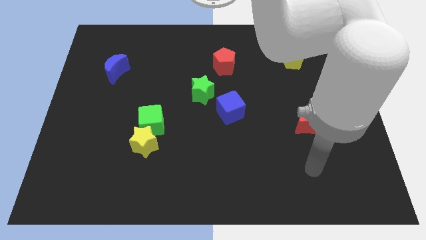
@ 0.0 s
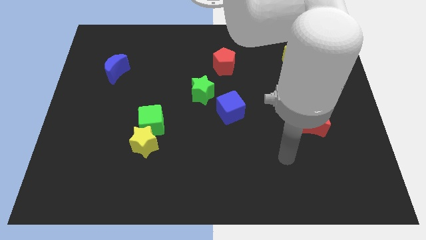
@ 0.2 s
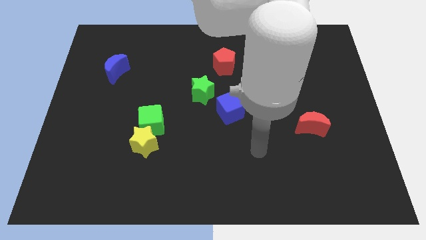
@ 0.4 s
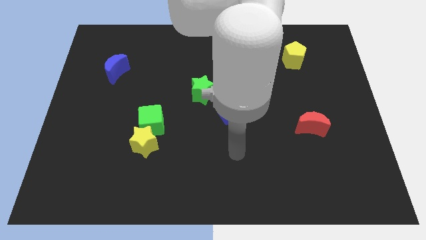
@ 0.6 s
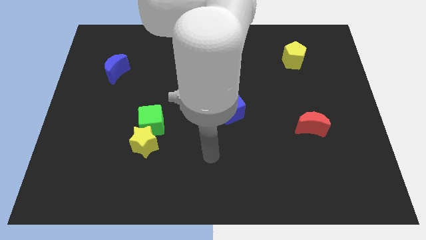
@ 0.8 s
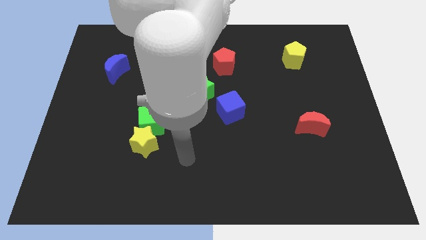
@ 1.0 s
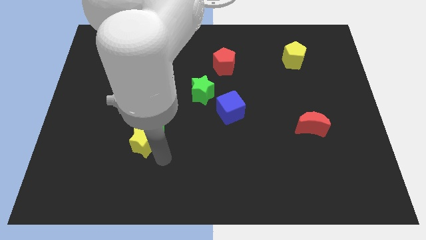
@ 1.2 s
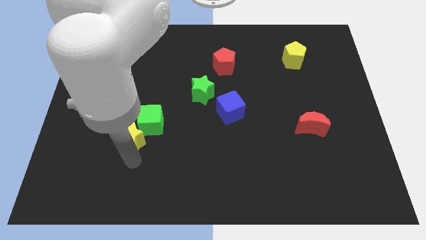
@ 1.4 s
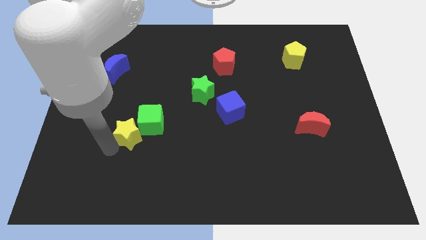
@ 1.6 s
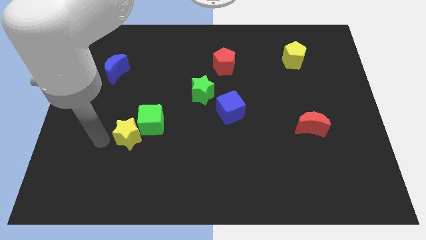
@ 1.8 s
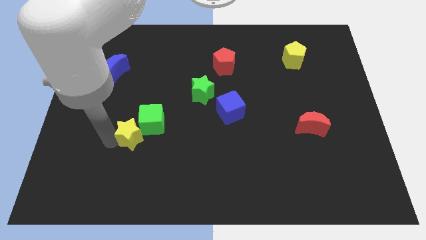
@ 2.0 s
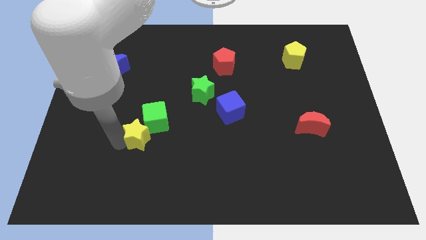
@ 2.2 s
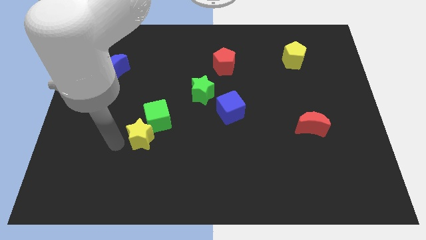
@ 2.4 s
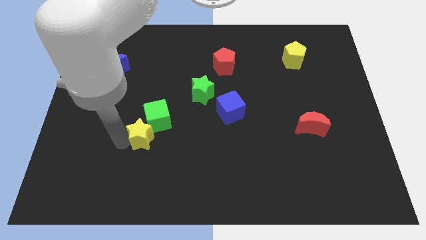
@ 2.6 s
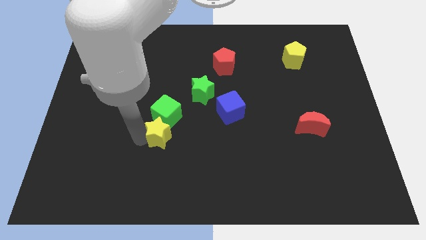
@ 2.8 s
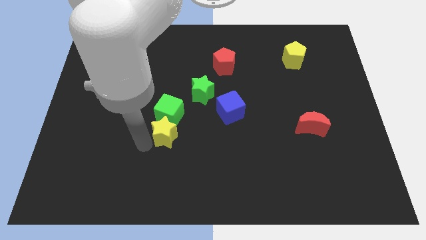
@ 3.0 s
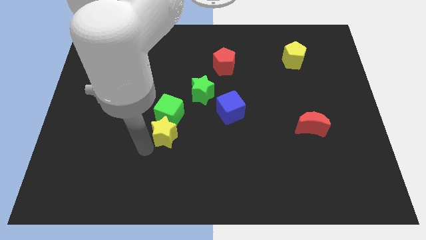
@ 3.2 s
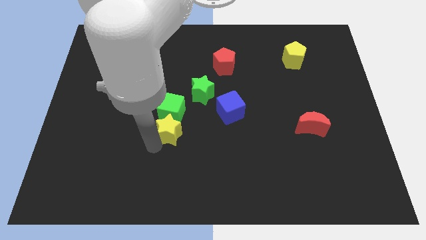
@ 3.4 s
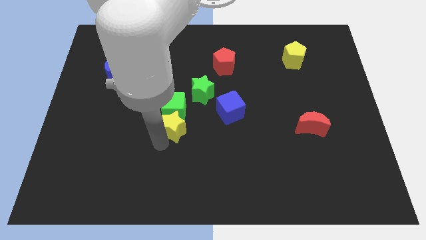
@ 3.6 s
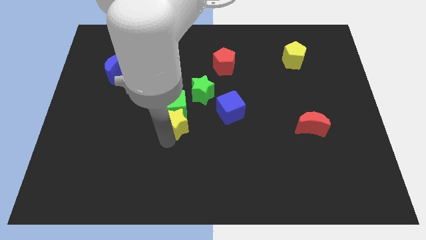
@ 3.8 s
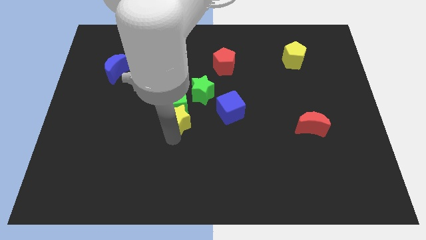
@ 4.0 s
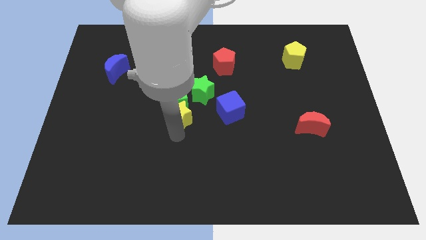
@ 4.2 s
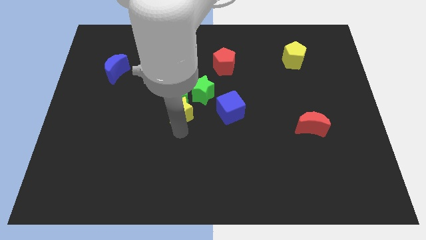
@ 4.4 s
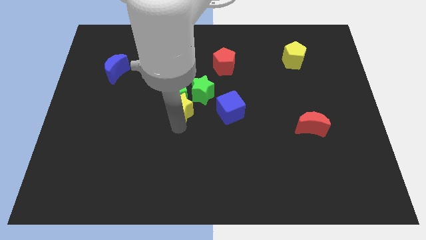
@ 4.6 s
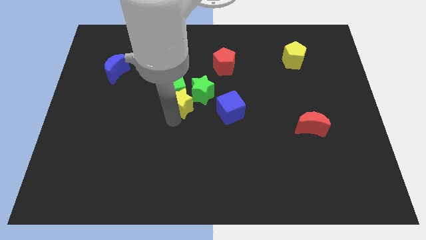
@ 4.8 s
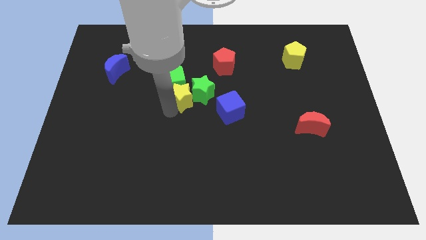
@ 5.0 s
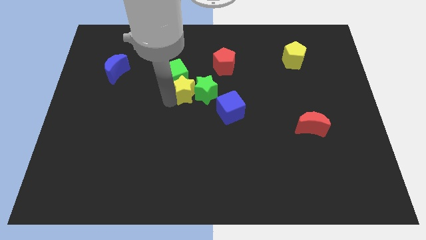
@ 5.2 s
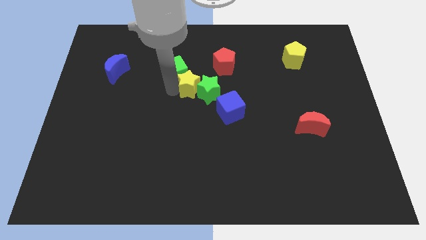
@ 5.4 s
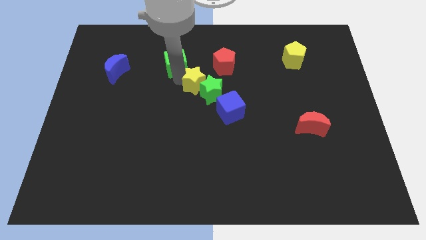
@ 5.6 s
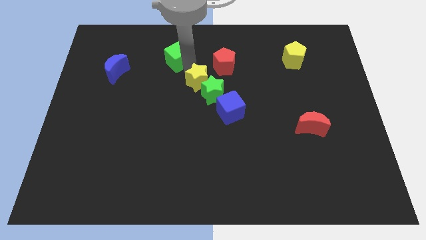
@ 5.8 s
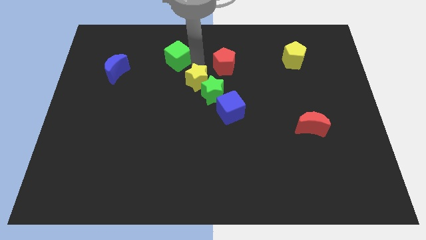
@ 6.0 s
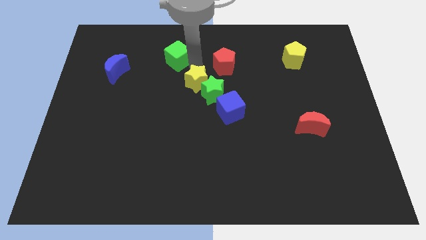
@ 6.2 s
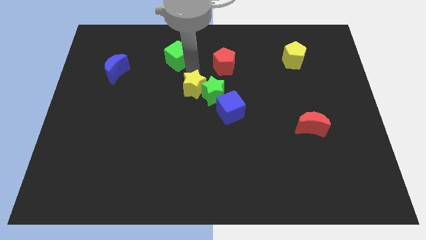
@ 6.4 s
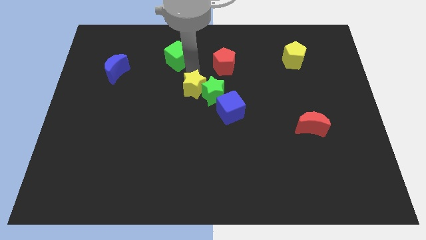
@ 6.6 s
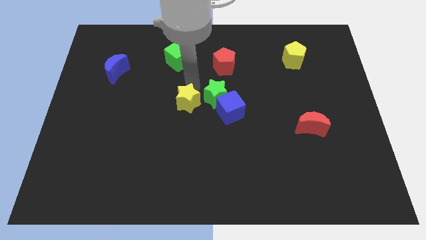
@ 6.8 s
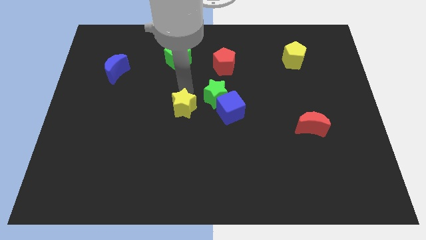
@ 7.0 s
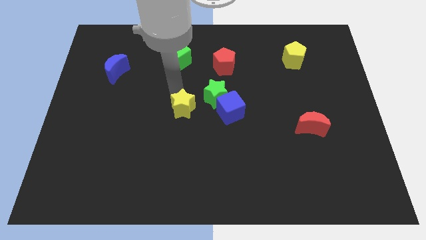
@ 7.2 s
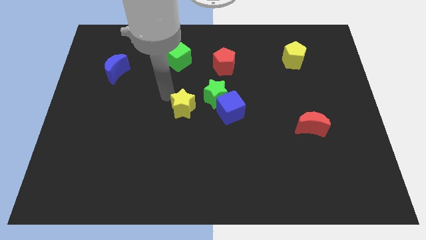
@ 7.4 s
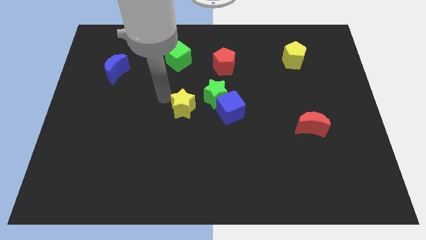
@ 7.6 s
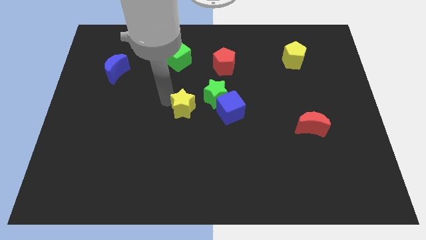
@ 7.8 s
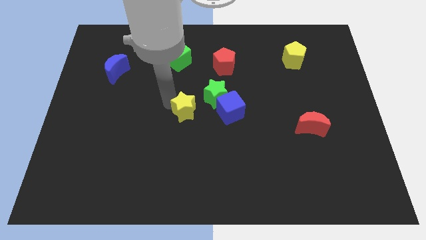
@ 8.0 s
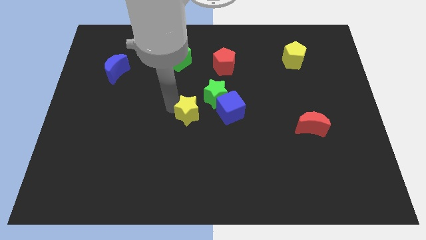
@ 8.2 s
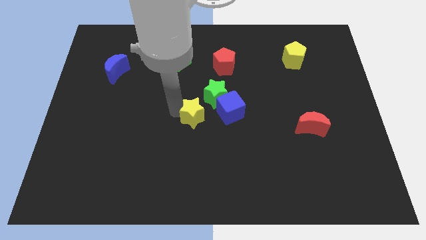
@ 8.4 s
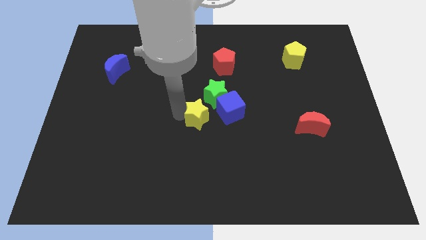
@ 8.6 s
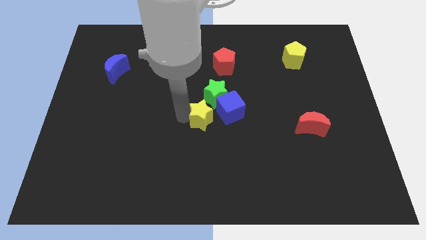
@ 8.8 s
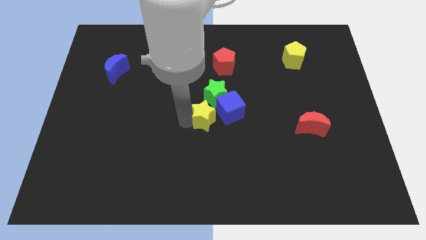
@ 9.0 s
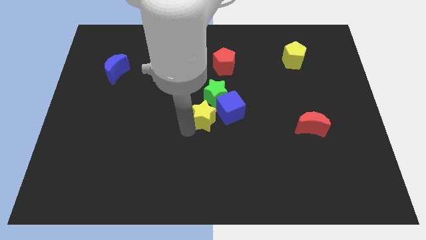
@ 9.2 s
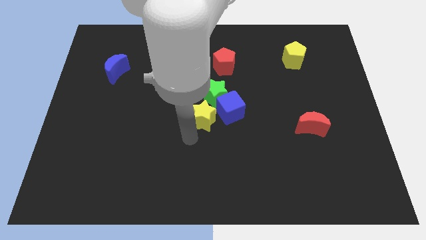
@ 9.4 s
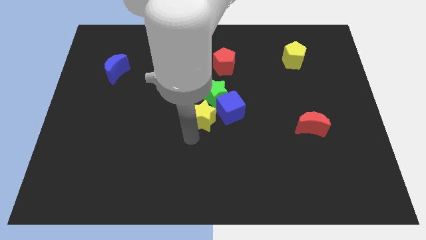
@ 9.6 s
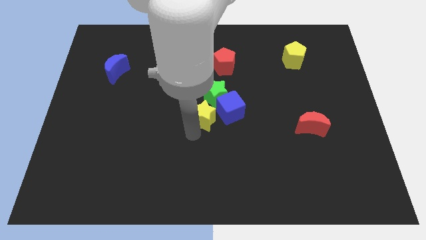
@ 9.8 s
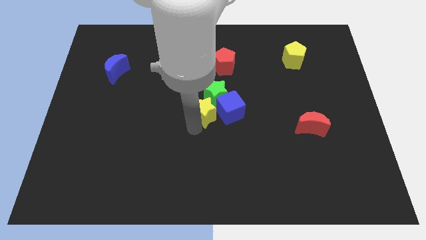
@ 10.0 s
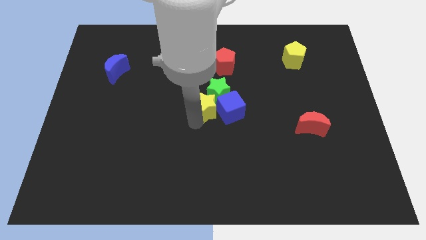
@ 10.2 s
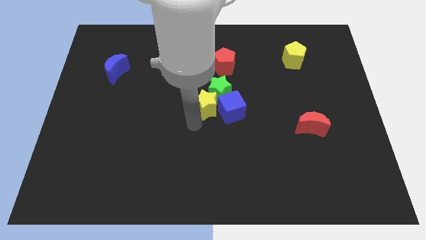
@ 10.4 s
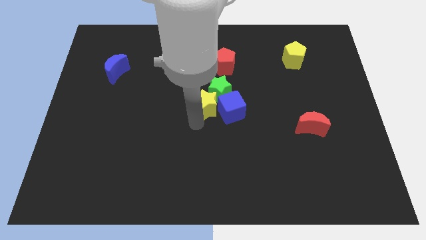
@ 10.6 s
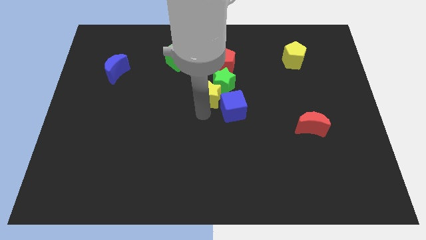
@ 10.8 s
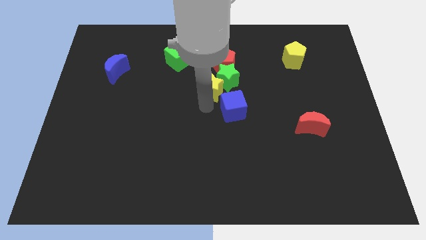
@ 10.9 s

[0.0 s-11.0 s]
put the yellow star to the top side of the blue cube

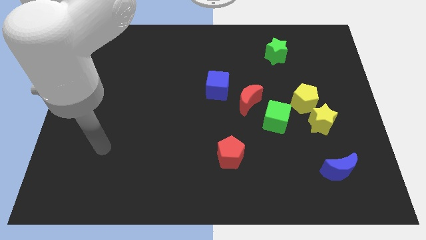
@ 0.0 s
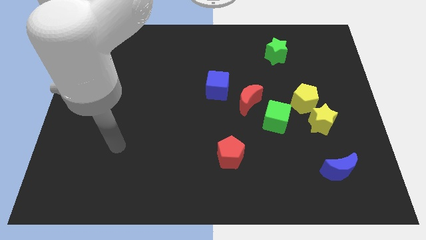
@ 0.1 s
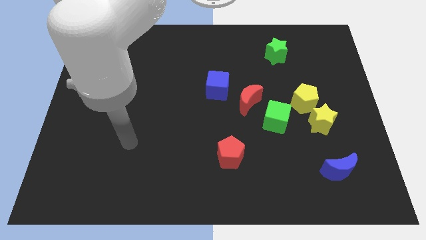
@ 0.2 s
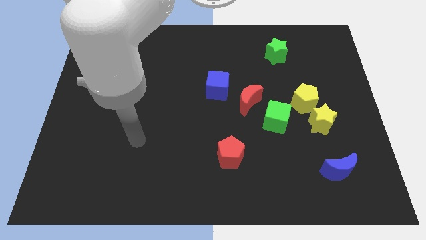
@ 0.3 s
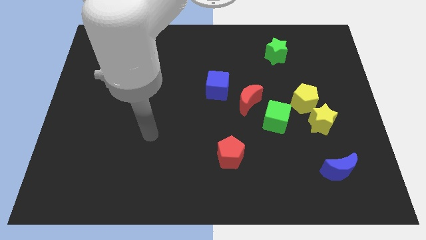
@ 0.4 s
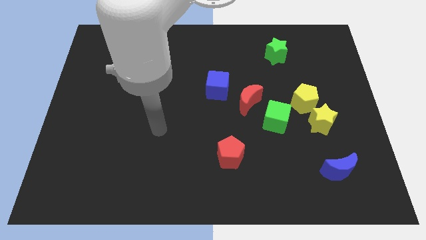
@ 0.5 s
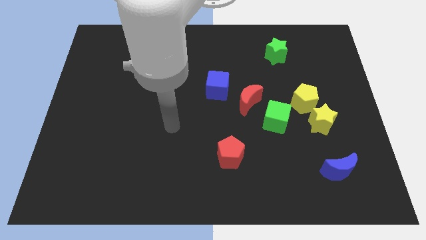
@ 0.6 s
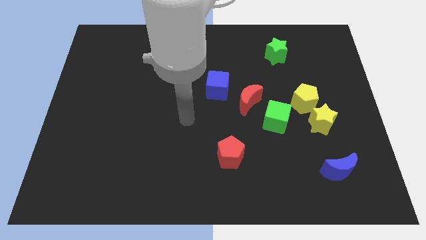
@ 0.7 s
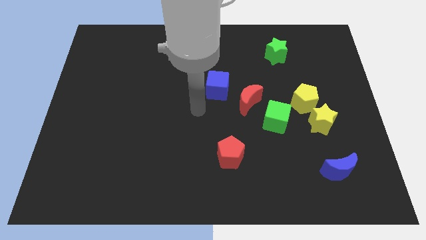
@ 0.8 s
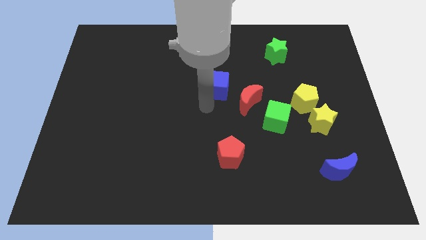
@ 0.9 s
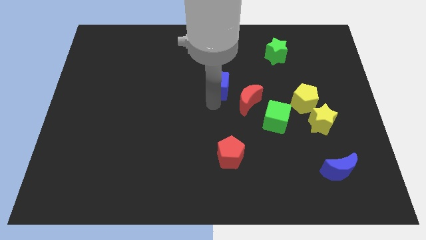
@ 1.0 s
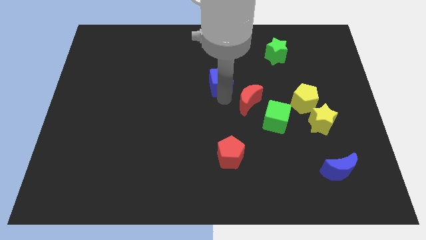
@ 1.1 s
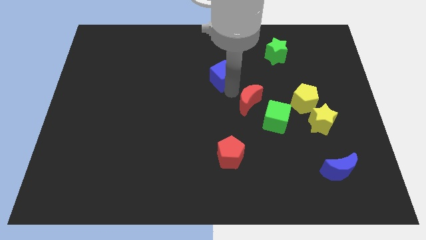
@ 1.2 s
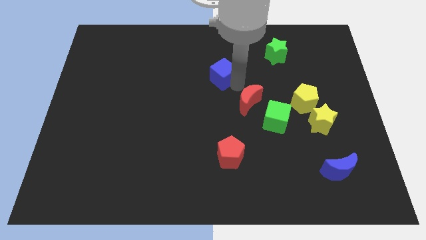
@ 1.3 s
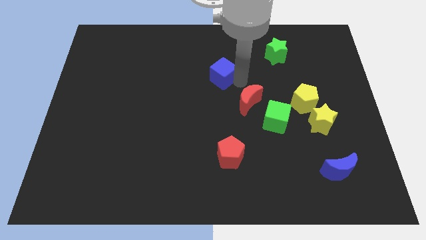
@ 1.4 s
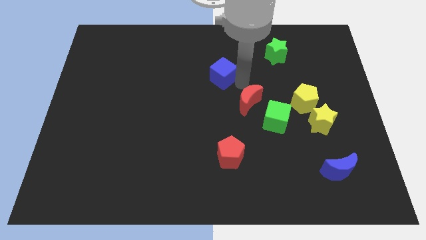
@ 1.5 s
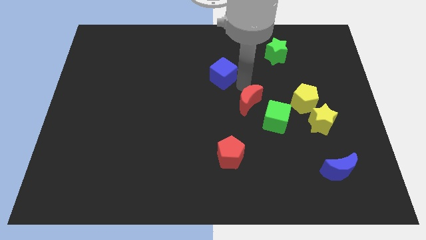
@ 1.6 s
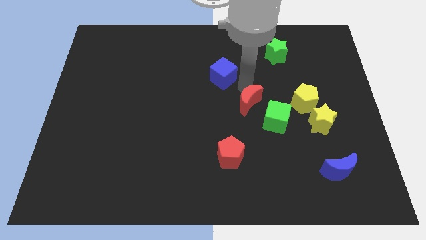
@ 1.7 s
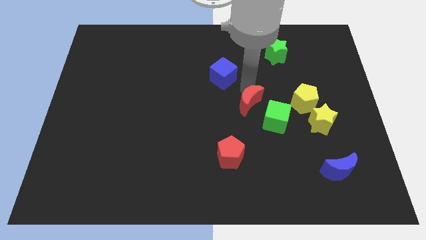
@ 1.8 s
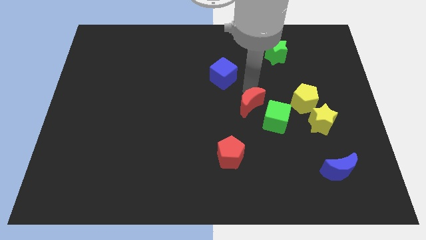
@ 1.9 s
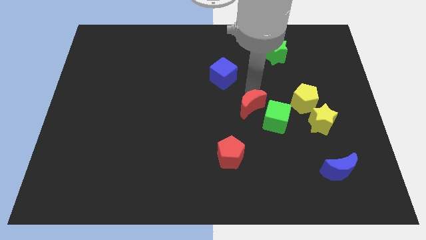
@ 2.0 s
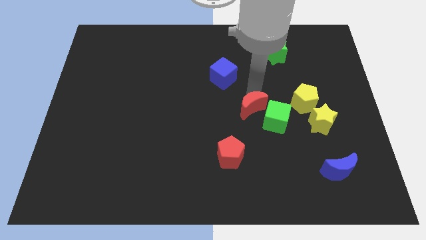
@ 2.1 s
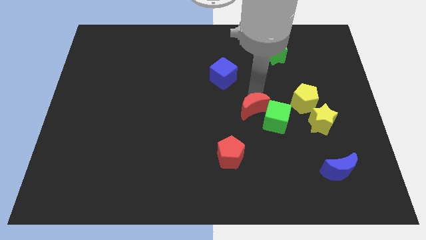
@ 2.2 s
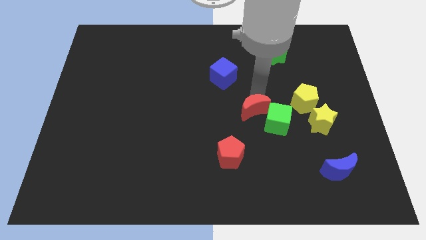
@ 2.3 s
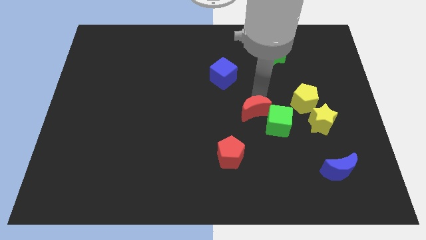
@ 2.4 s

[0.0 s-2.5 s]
slide the red moon left of the yellow star
